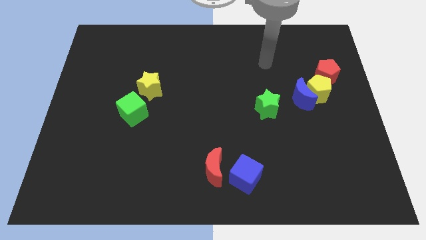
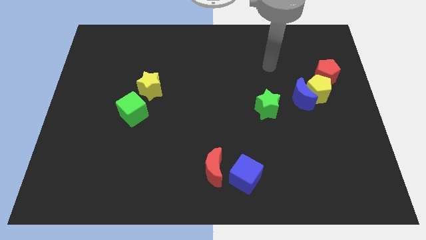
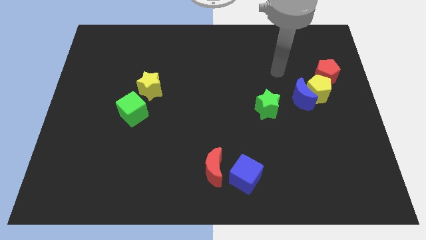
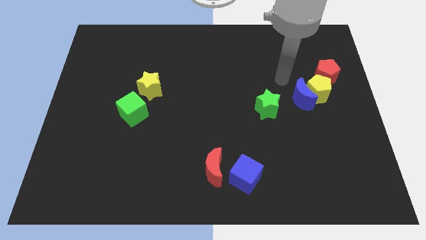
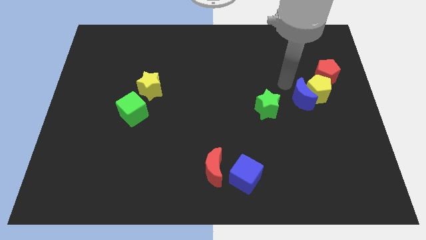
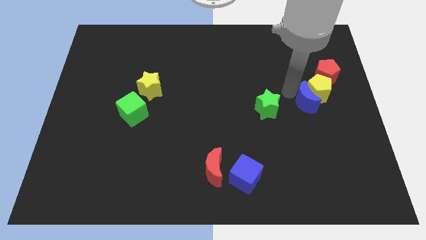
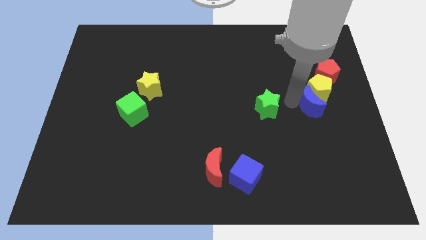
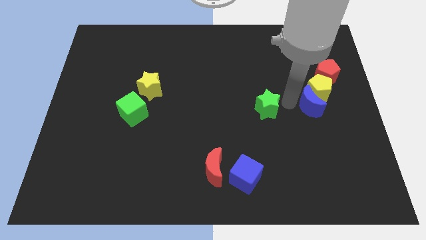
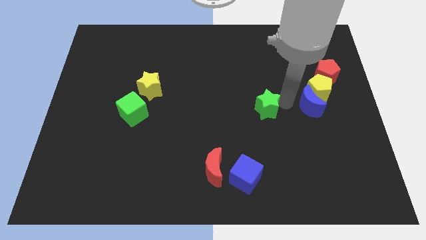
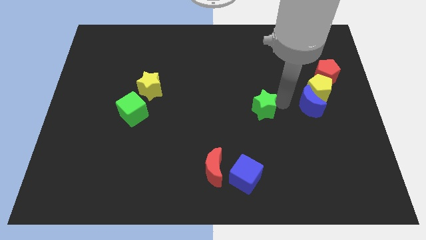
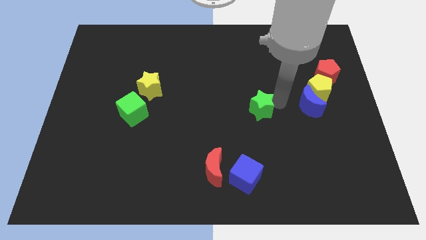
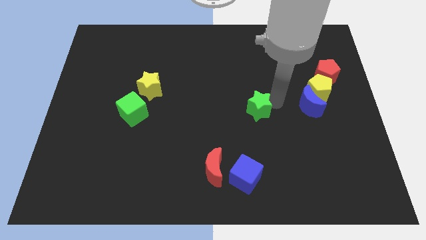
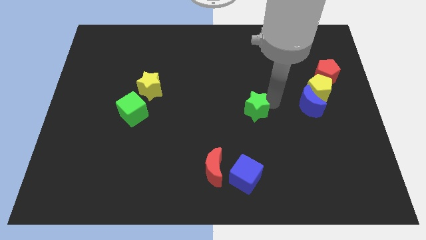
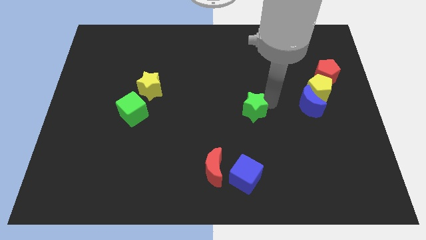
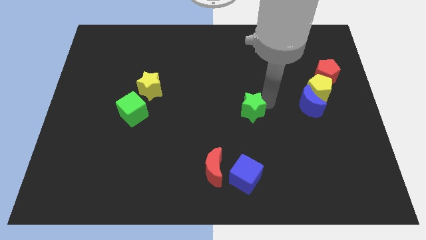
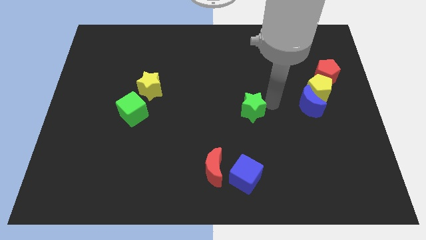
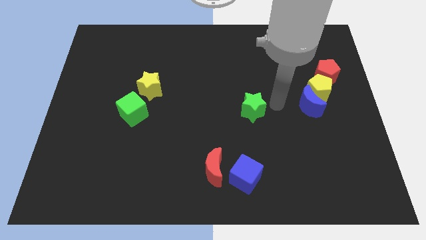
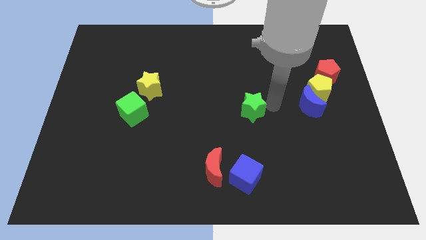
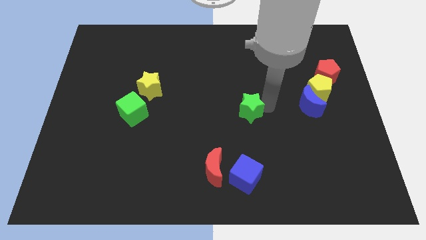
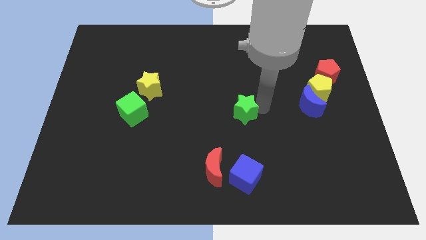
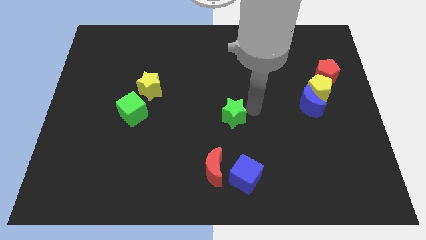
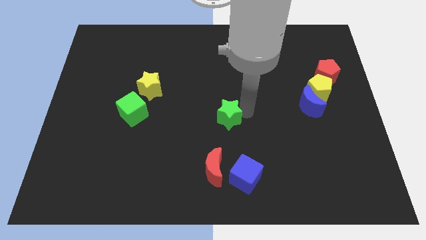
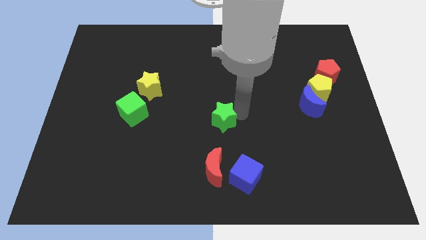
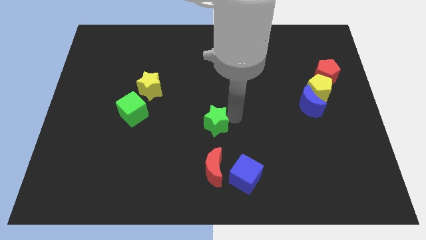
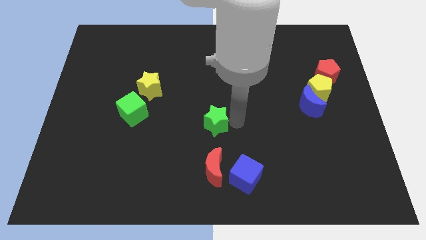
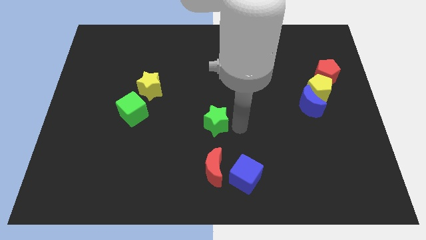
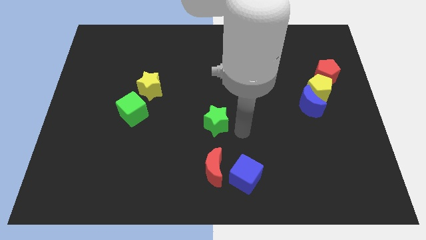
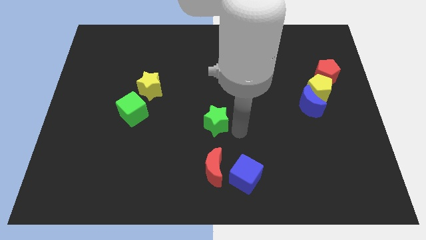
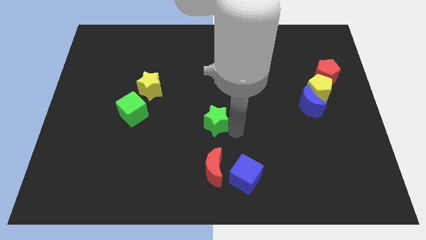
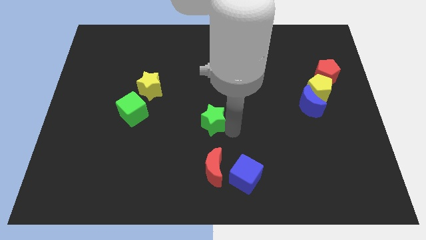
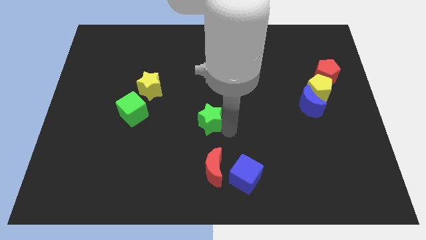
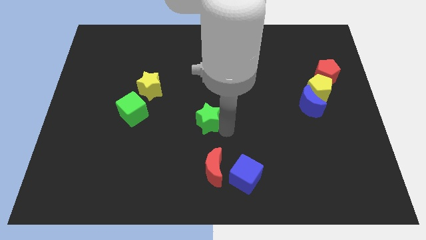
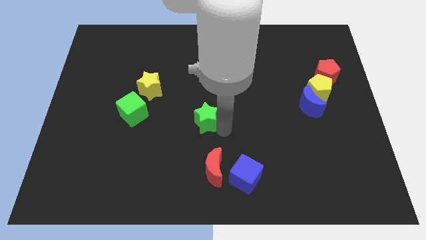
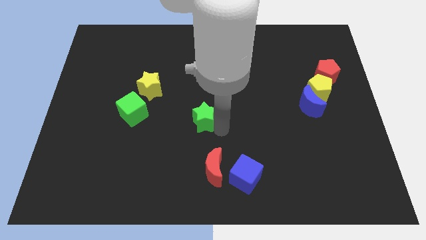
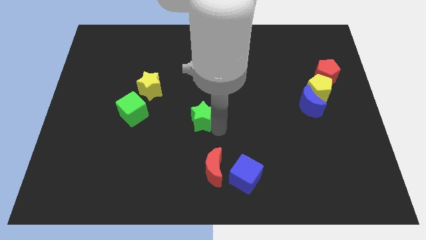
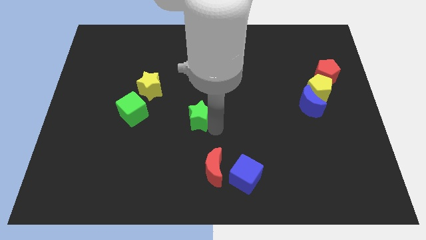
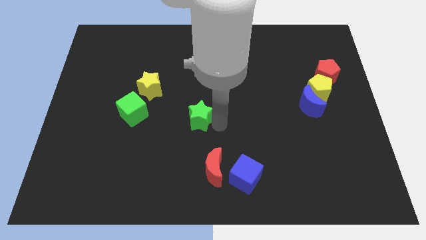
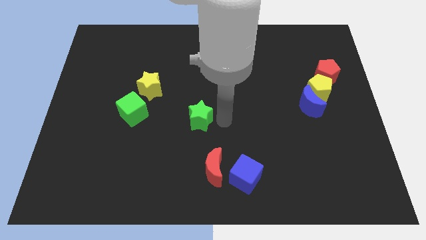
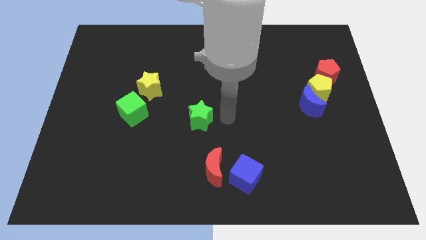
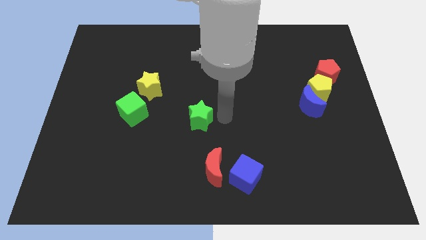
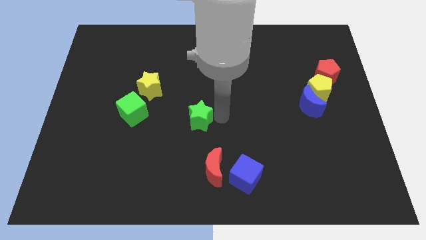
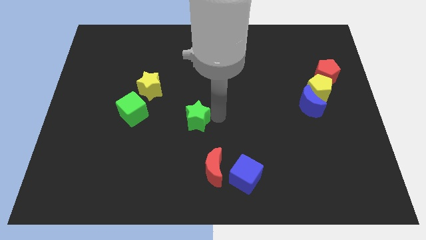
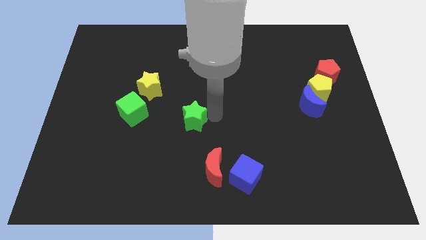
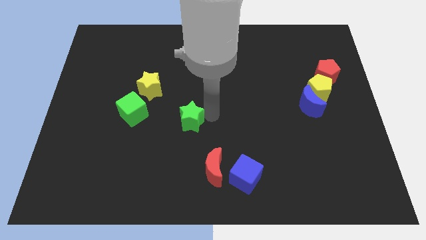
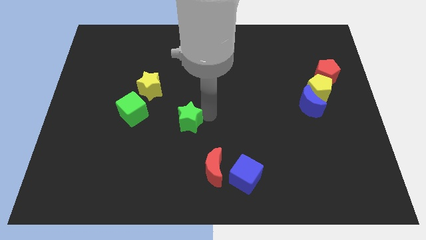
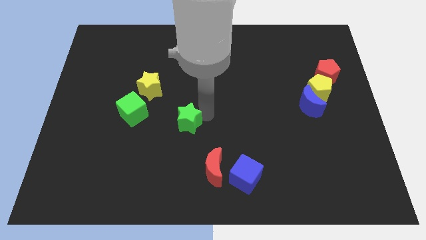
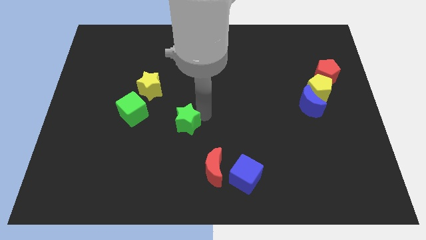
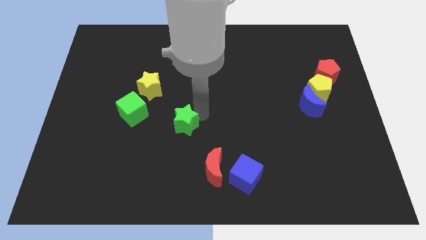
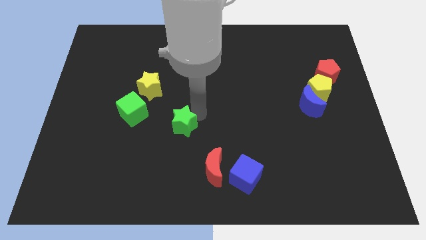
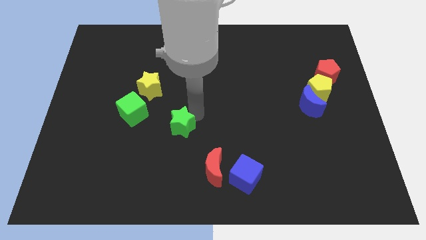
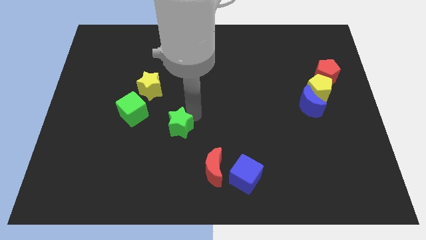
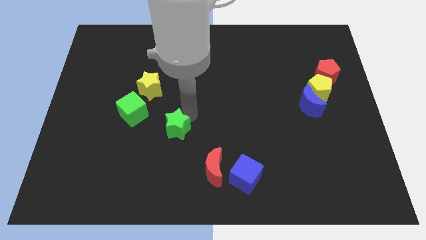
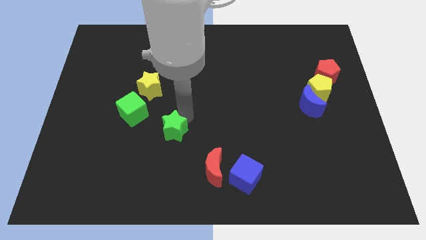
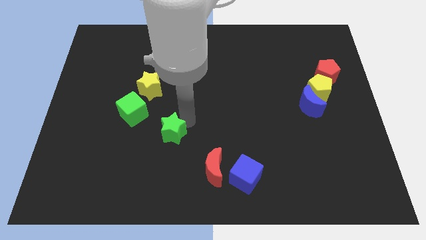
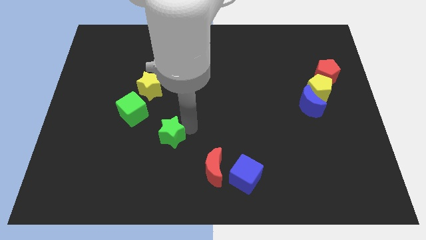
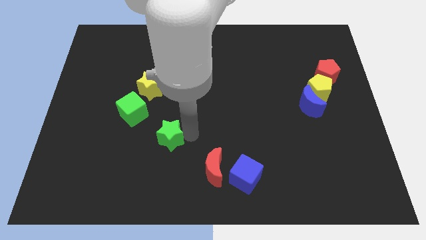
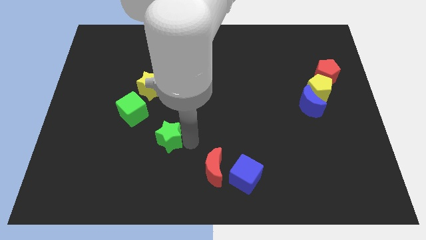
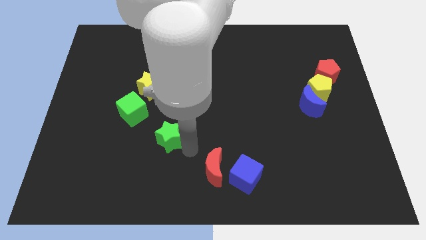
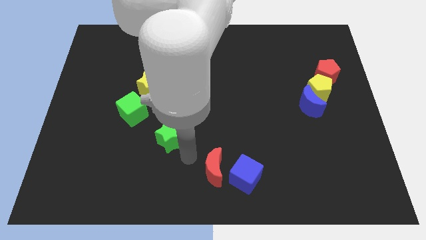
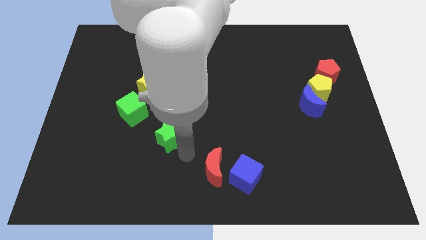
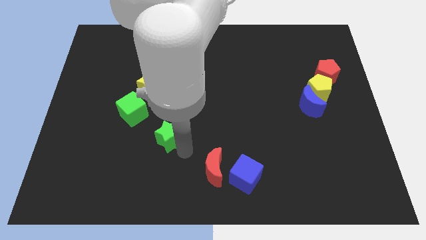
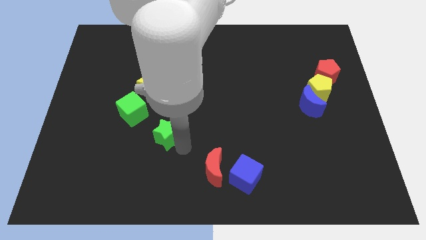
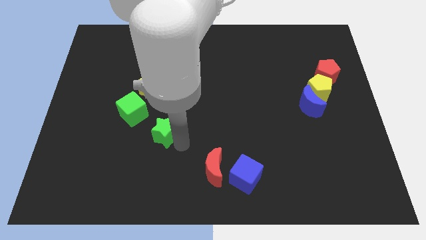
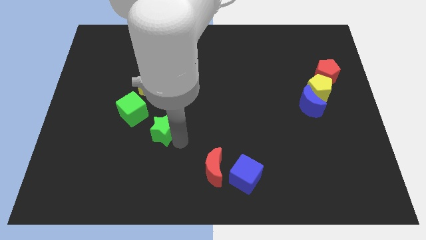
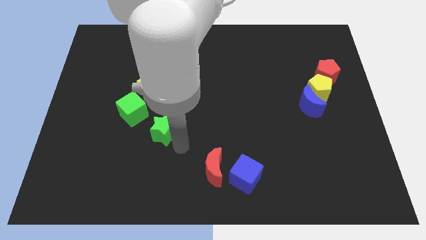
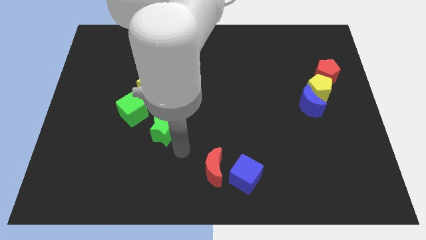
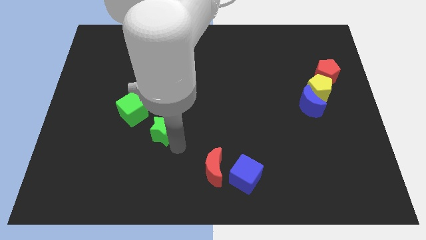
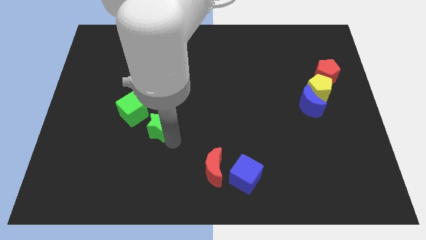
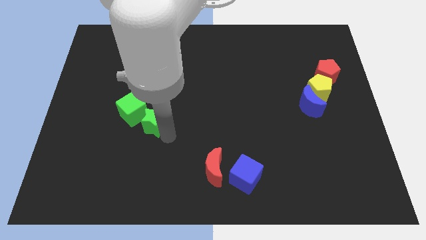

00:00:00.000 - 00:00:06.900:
push the green star close to the green cube
